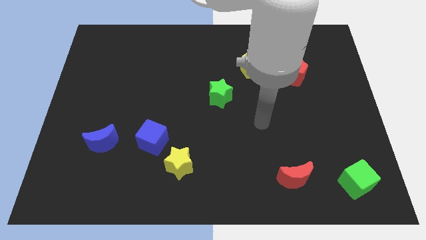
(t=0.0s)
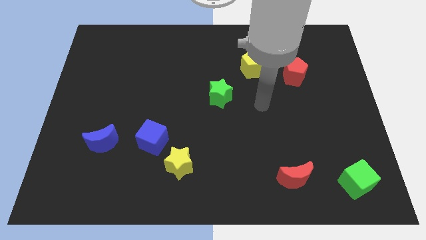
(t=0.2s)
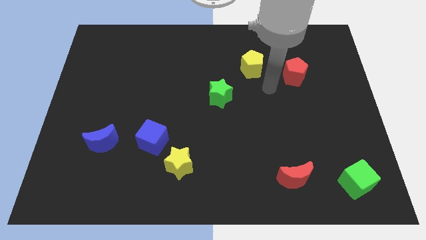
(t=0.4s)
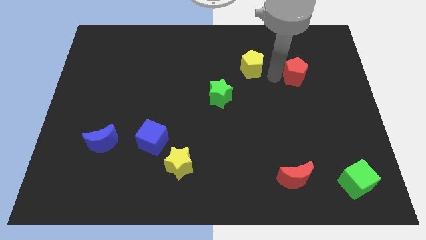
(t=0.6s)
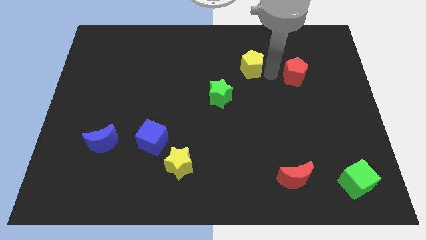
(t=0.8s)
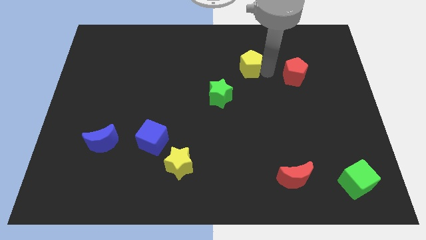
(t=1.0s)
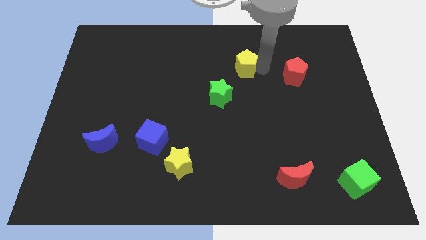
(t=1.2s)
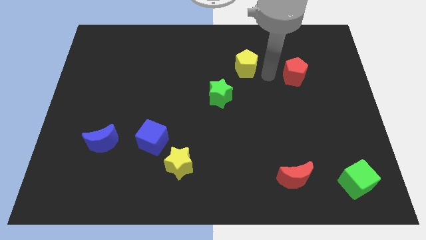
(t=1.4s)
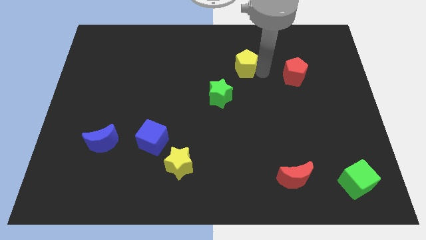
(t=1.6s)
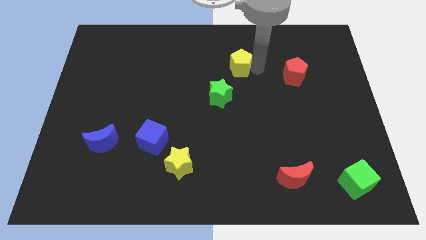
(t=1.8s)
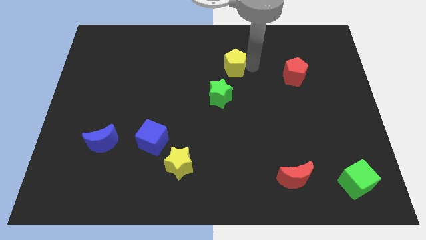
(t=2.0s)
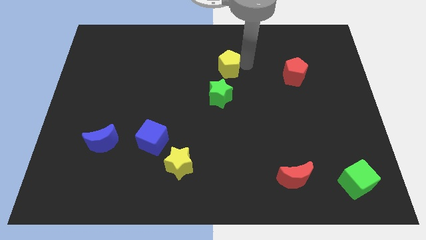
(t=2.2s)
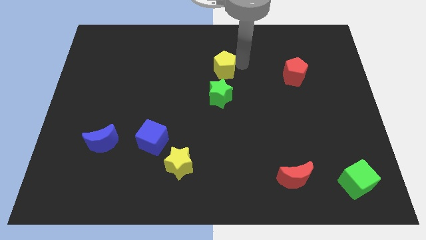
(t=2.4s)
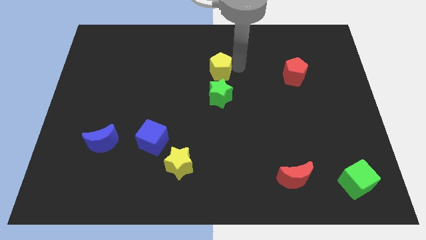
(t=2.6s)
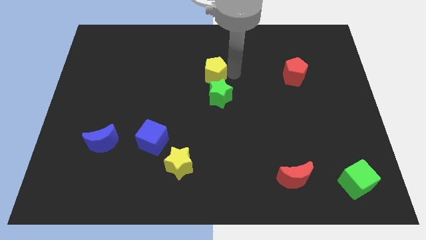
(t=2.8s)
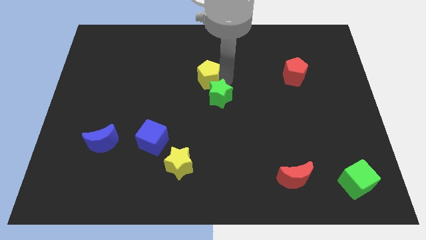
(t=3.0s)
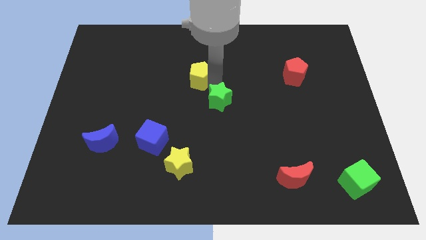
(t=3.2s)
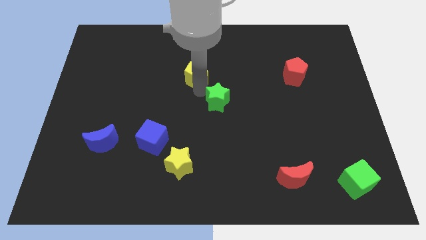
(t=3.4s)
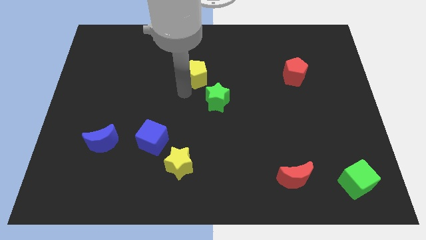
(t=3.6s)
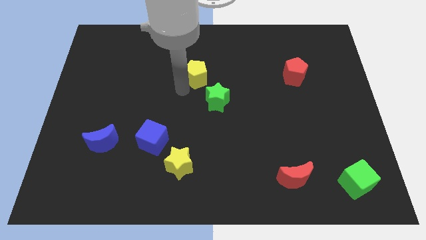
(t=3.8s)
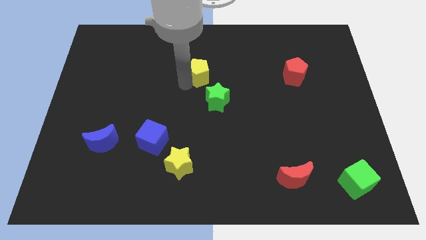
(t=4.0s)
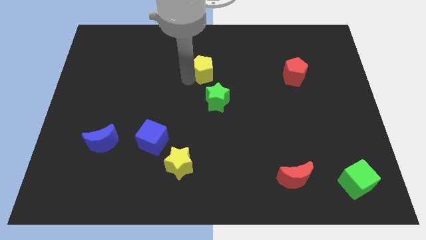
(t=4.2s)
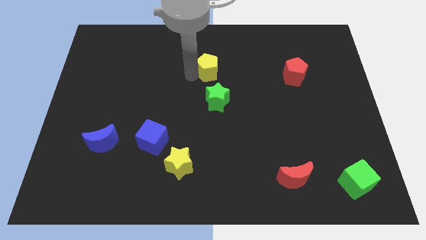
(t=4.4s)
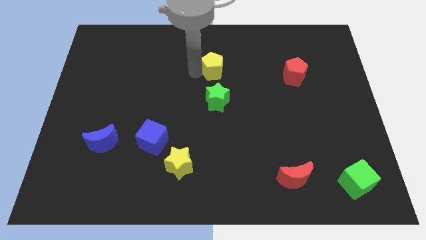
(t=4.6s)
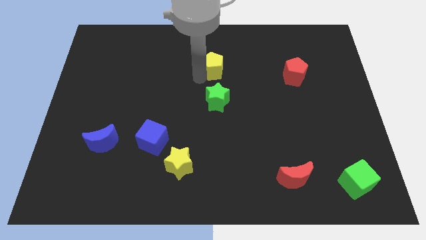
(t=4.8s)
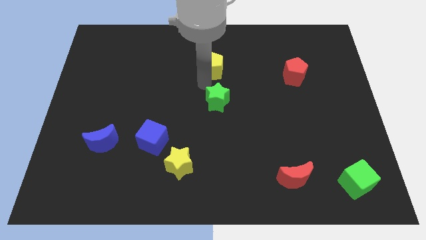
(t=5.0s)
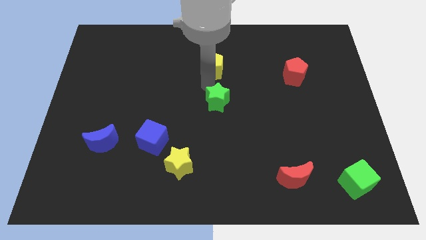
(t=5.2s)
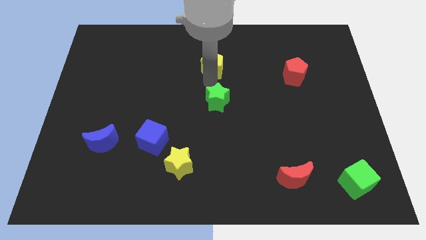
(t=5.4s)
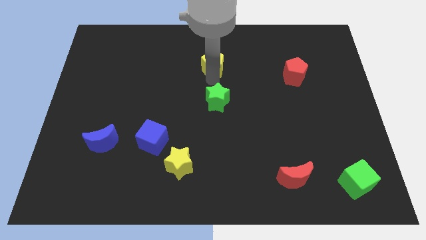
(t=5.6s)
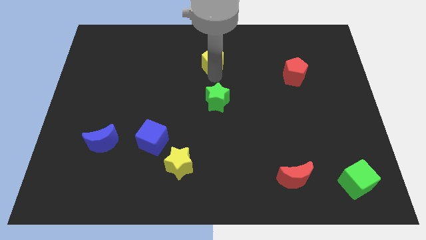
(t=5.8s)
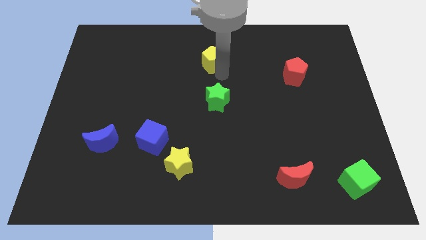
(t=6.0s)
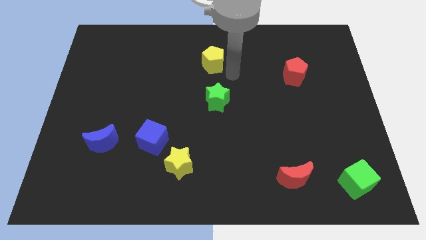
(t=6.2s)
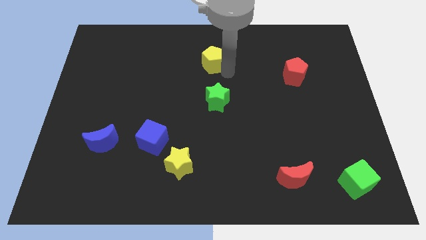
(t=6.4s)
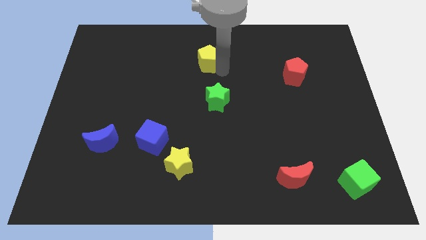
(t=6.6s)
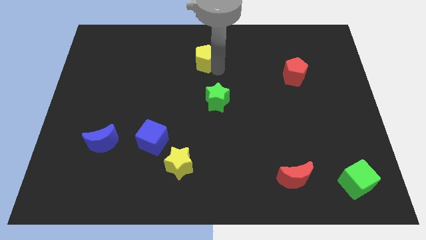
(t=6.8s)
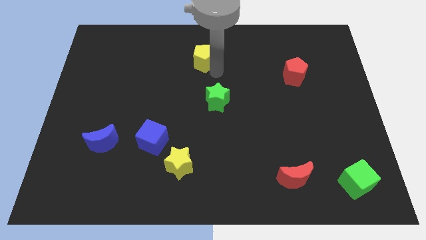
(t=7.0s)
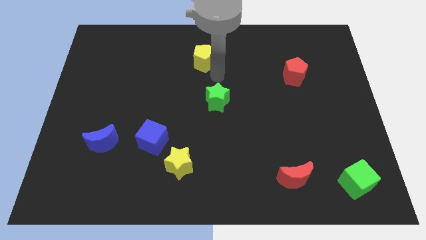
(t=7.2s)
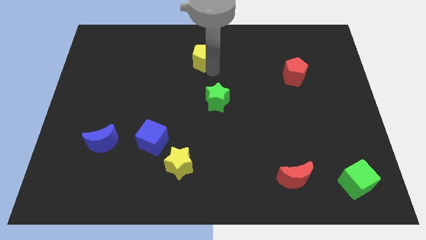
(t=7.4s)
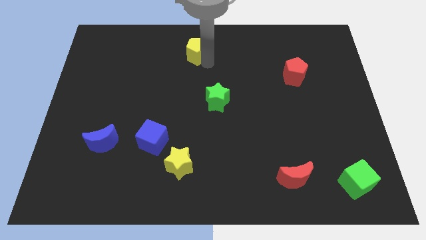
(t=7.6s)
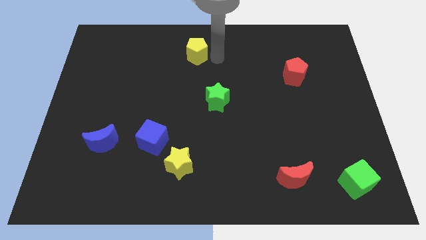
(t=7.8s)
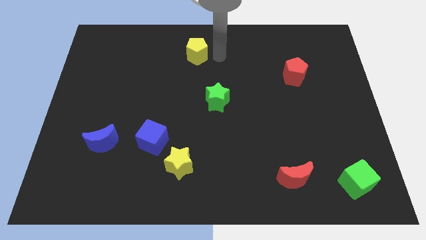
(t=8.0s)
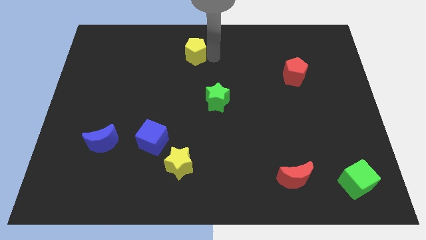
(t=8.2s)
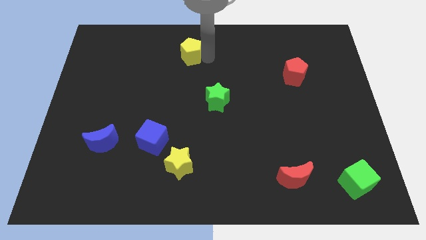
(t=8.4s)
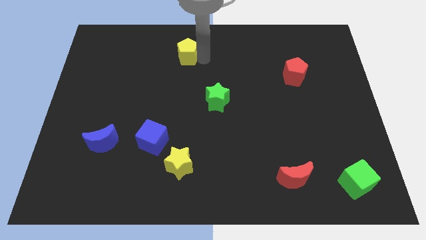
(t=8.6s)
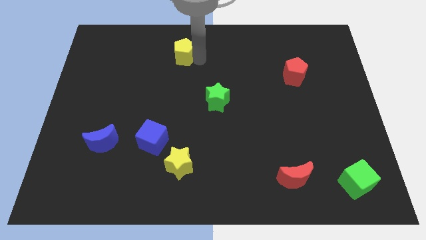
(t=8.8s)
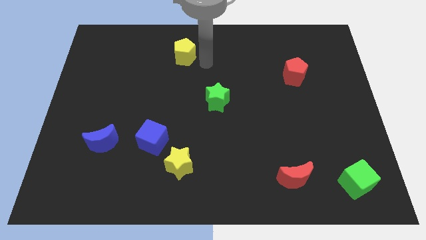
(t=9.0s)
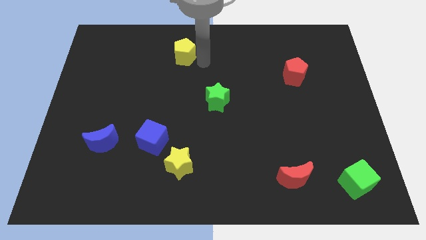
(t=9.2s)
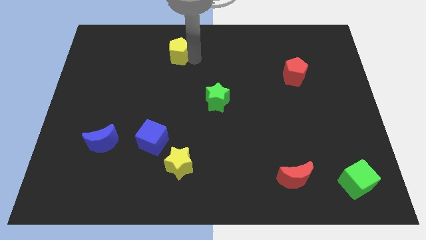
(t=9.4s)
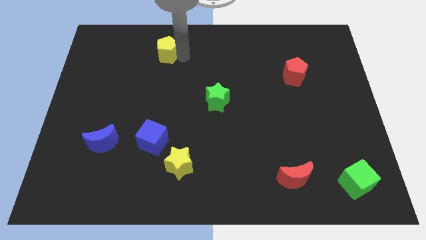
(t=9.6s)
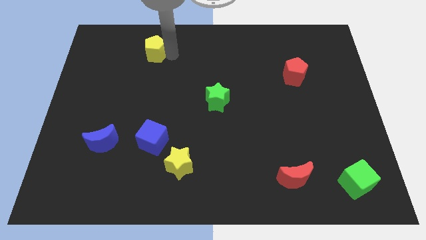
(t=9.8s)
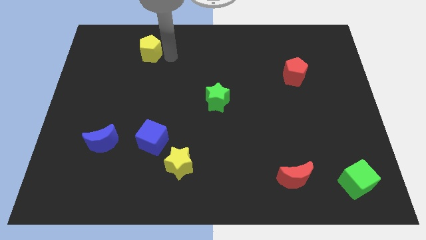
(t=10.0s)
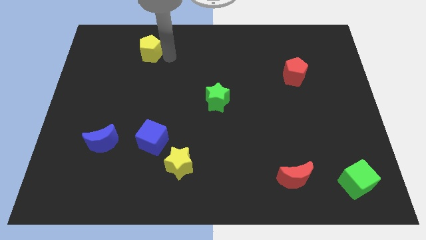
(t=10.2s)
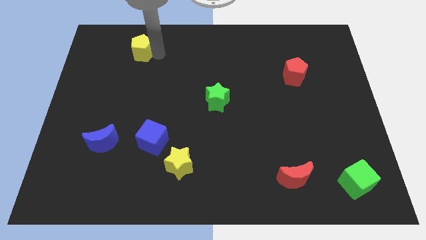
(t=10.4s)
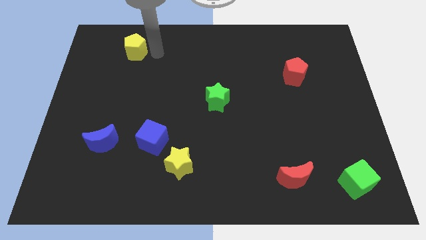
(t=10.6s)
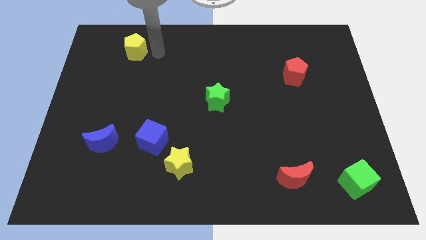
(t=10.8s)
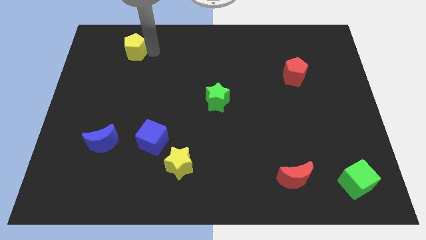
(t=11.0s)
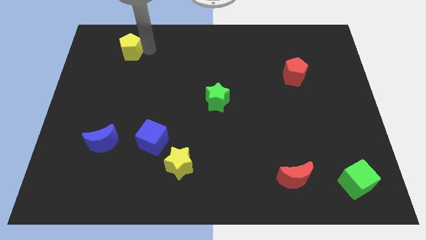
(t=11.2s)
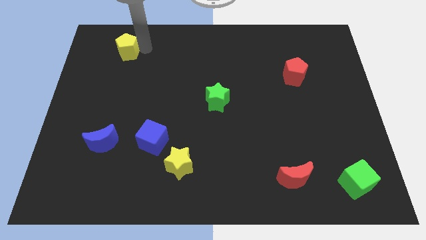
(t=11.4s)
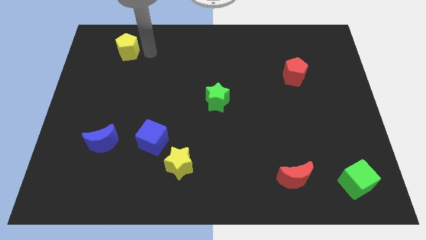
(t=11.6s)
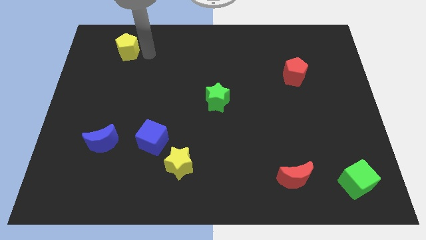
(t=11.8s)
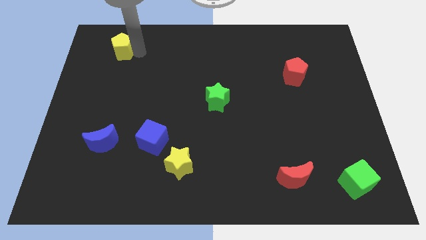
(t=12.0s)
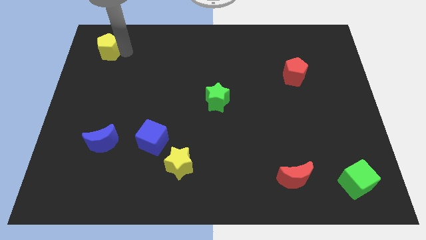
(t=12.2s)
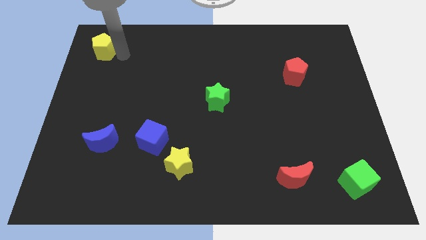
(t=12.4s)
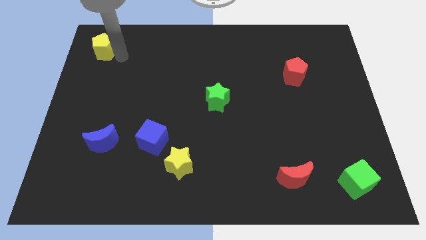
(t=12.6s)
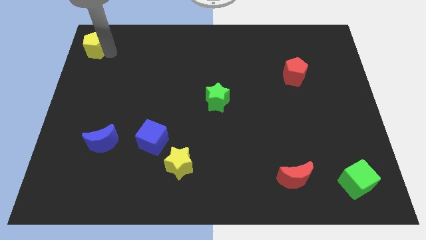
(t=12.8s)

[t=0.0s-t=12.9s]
push the yellow pentagon to the top left of the board
